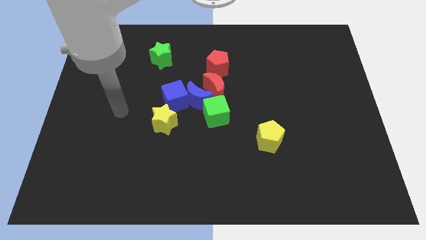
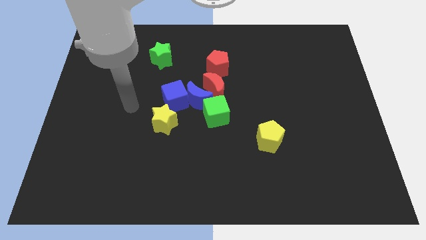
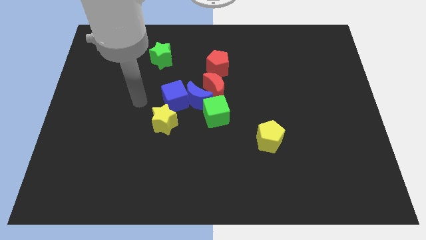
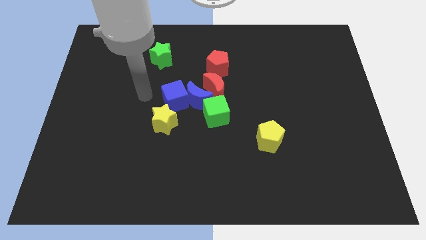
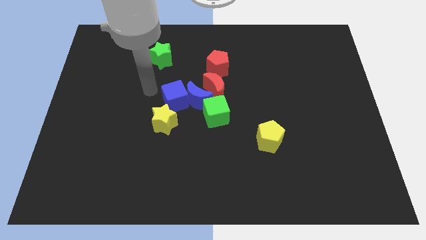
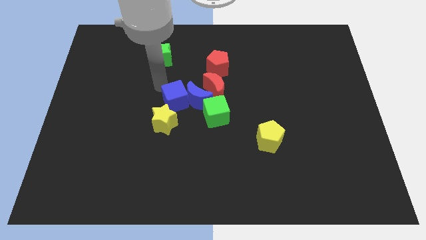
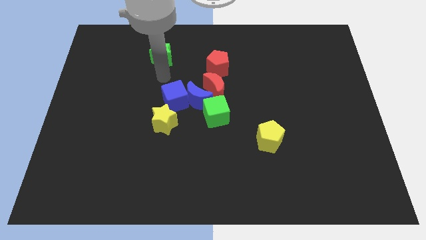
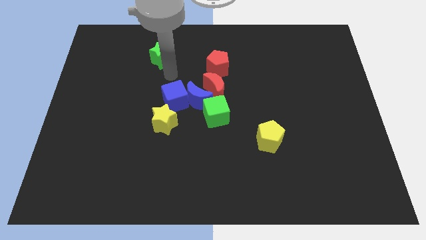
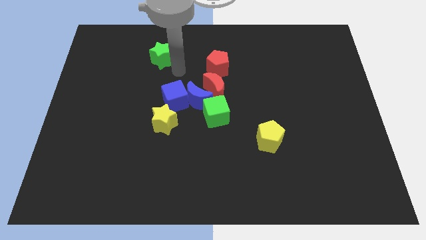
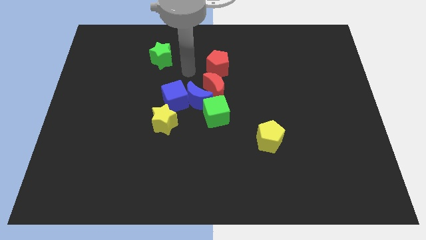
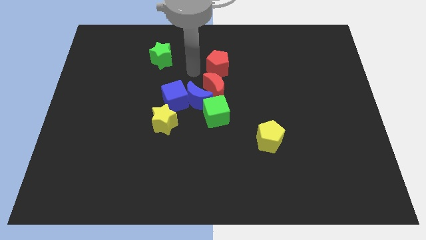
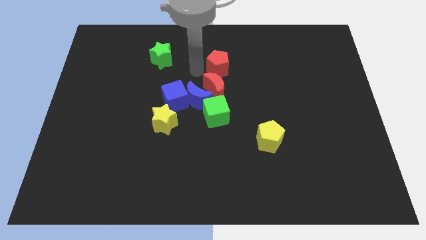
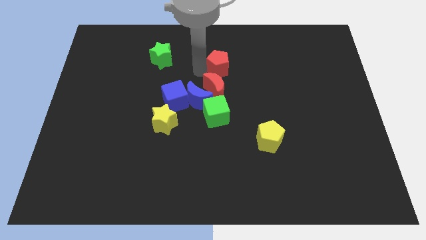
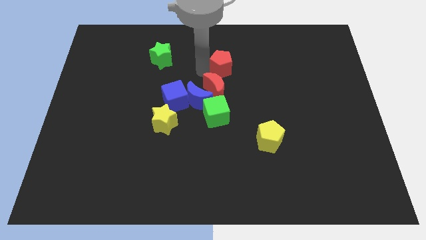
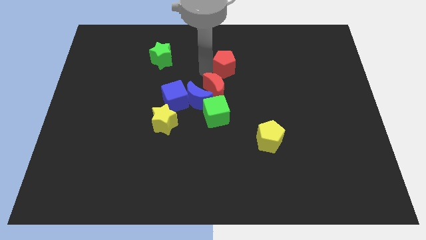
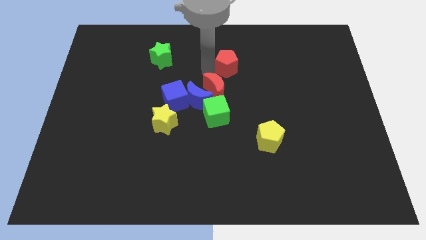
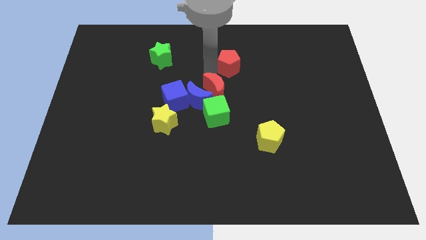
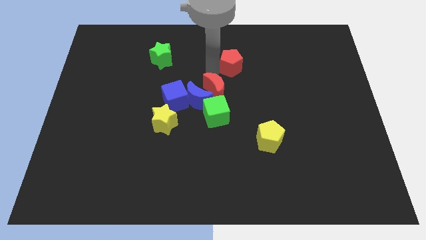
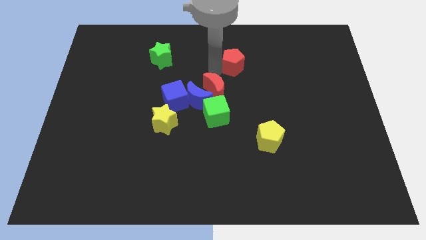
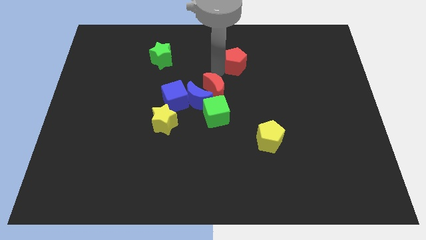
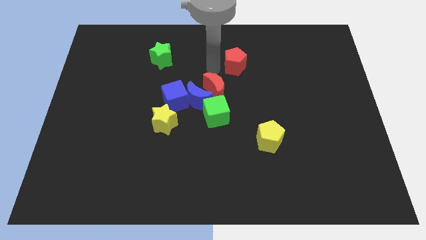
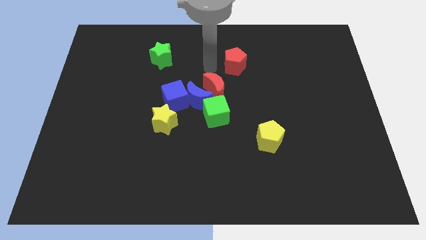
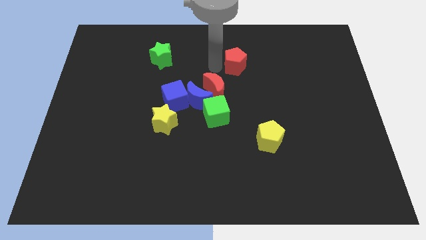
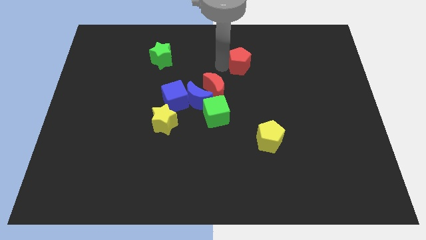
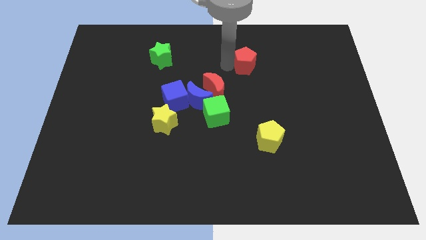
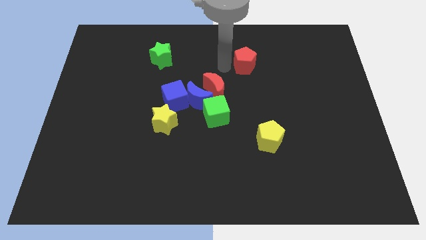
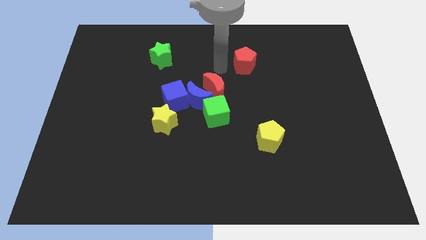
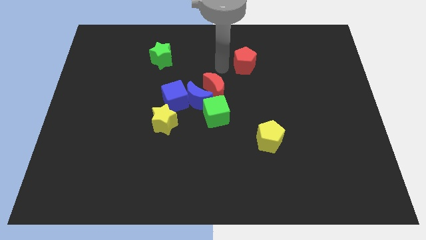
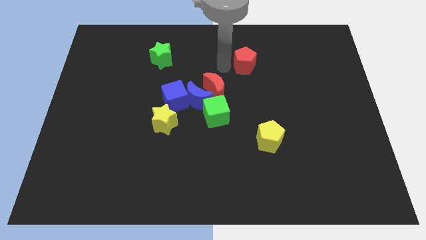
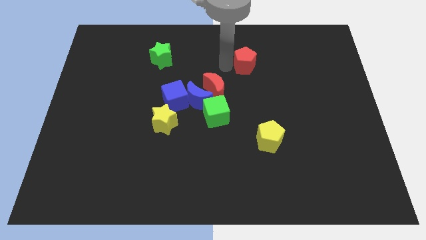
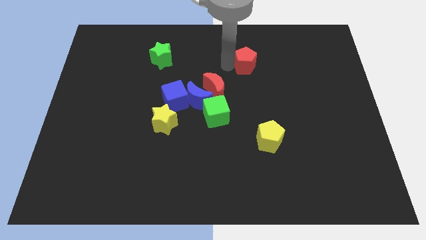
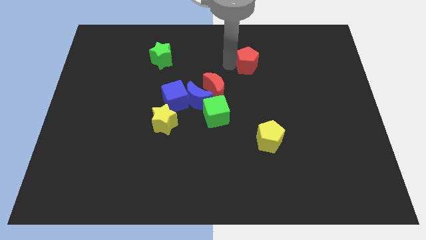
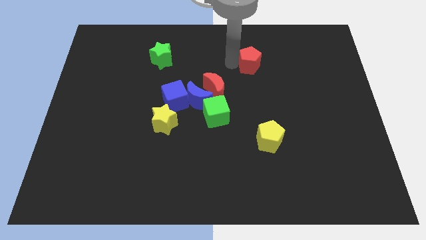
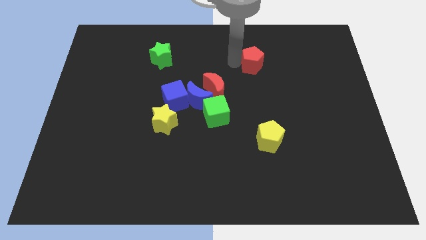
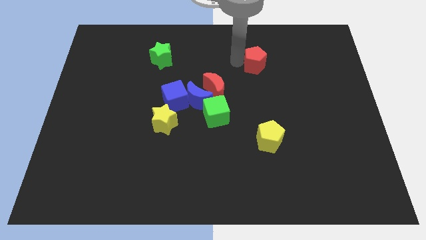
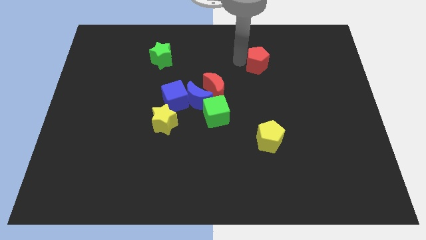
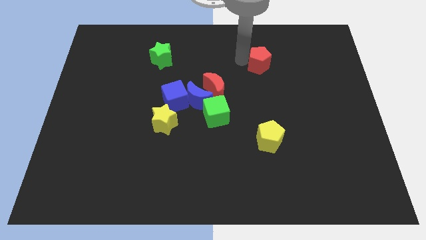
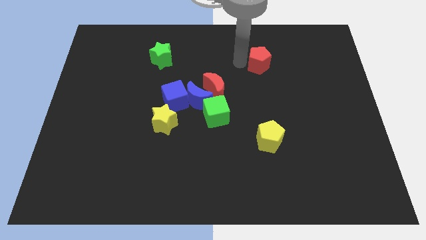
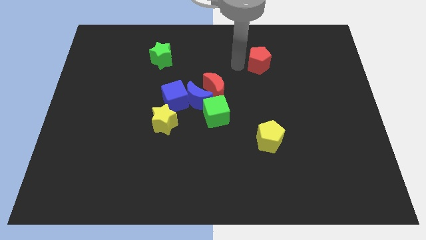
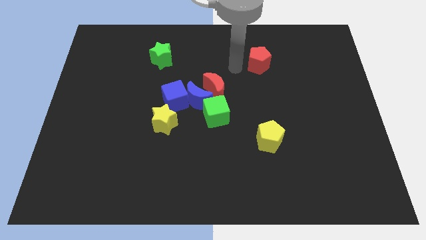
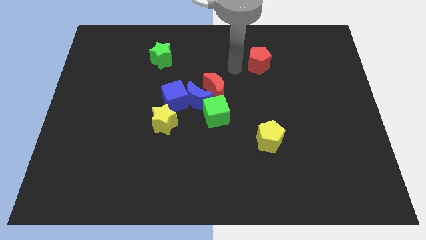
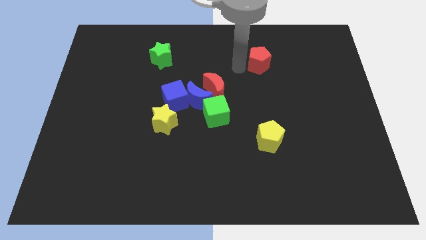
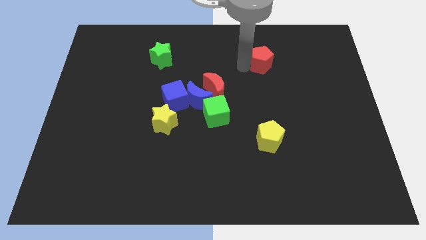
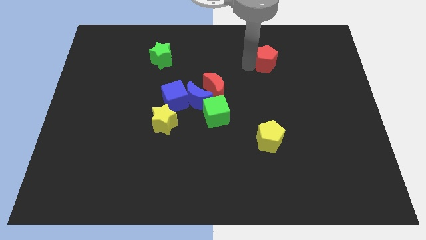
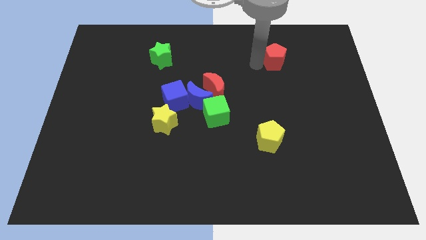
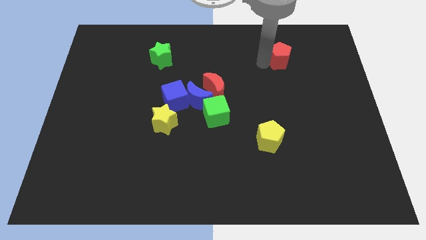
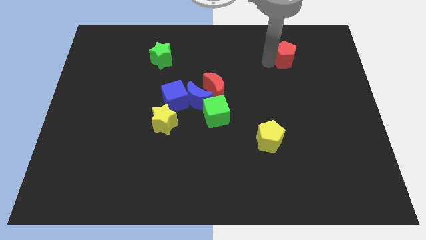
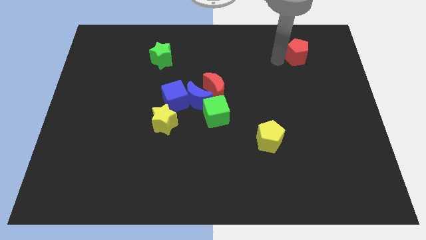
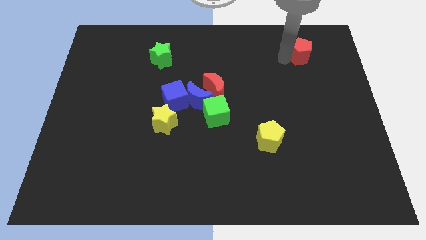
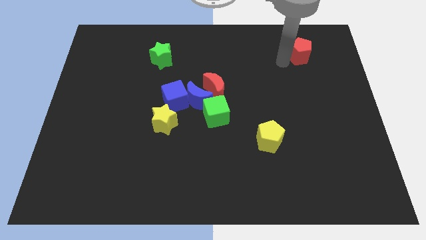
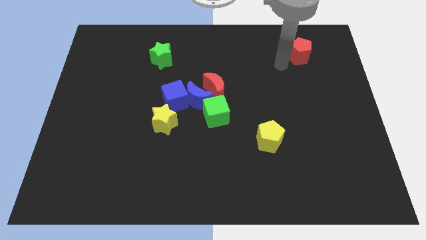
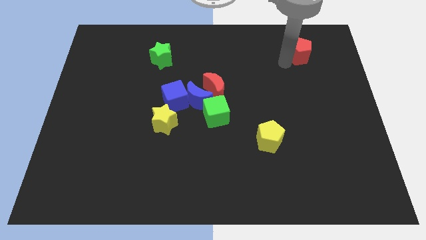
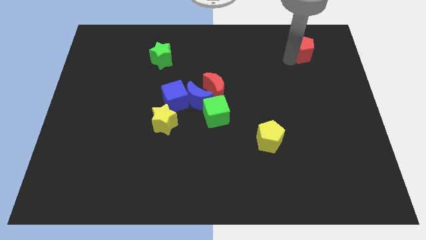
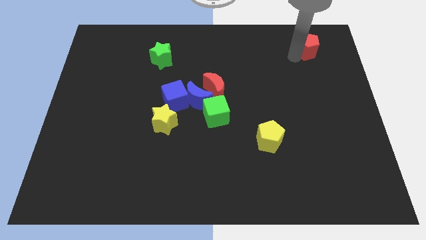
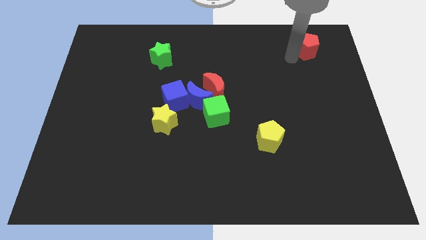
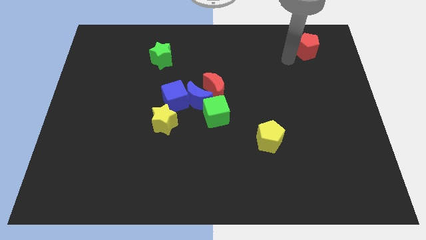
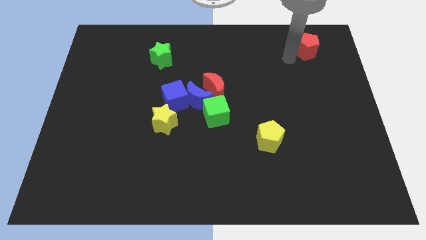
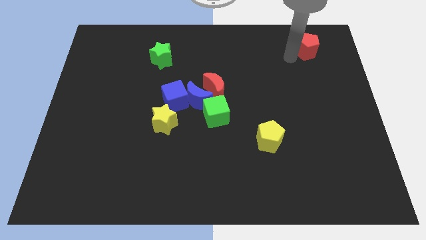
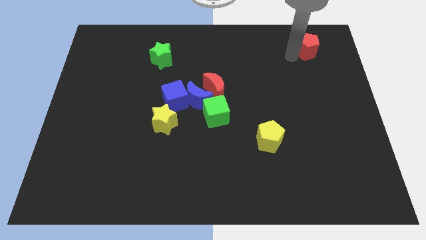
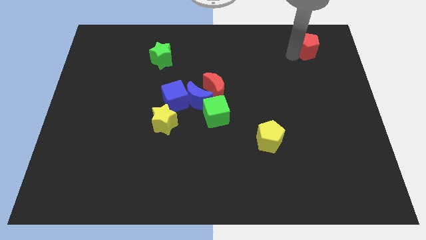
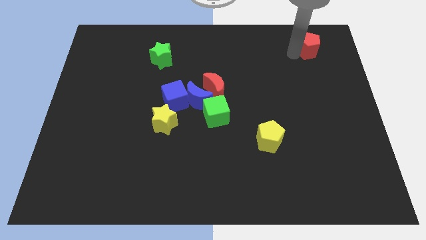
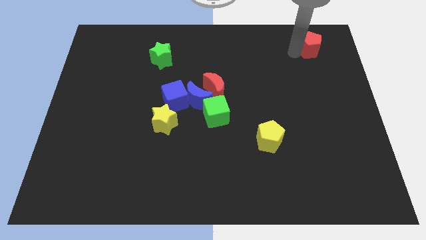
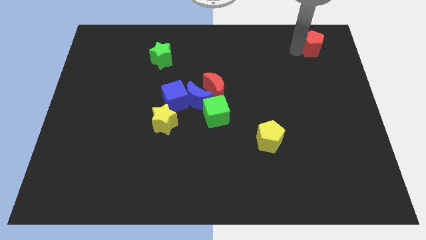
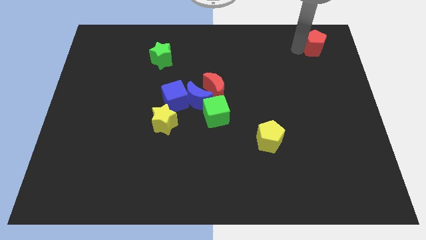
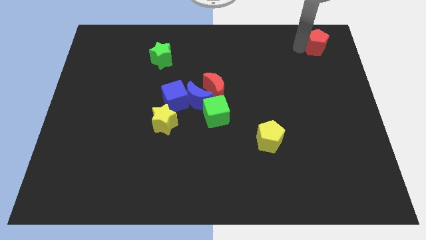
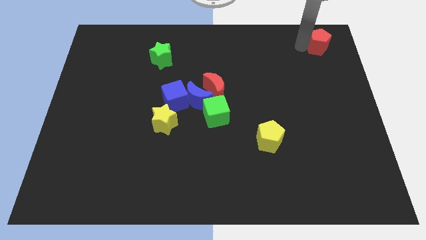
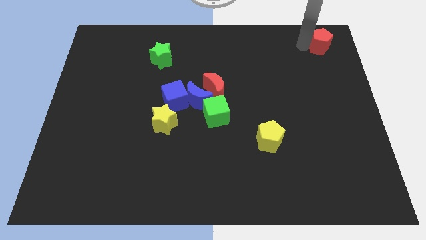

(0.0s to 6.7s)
put the red pentagon to the top right of the board
